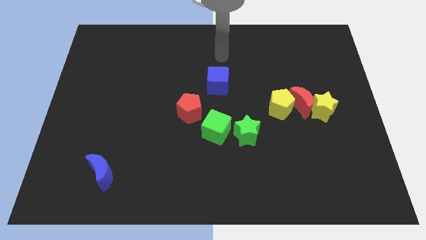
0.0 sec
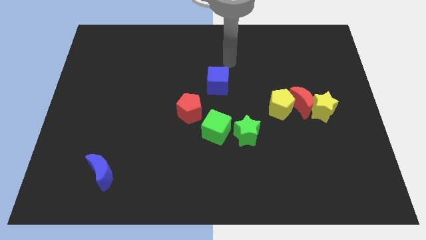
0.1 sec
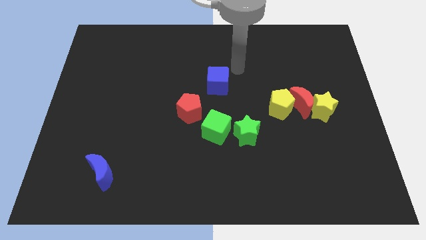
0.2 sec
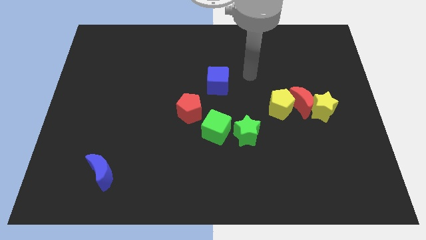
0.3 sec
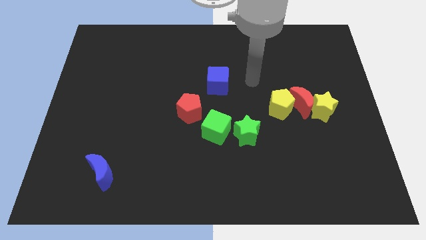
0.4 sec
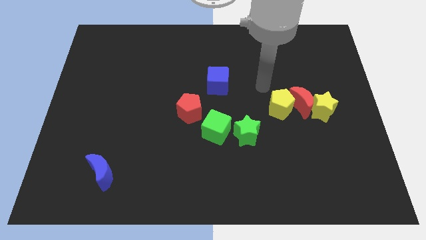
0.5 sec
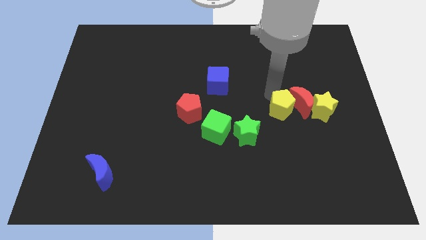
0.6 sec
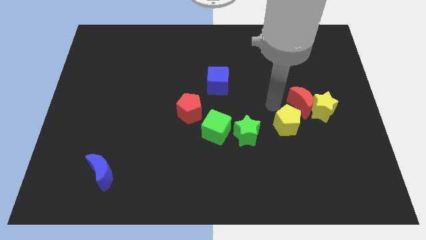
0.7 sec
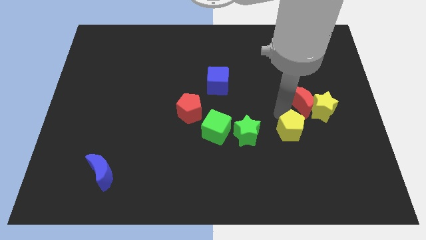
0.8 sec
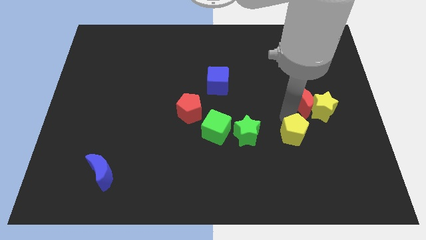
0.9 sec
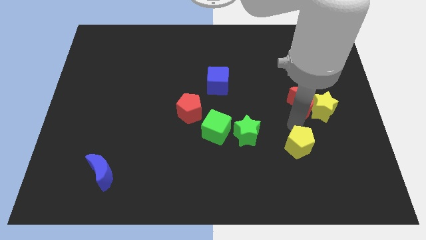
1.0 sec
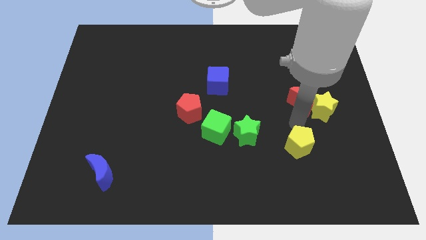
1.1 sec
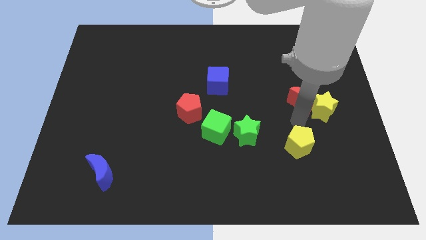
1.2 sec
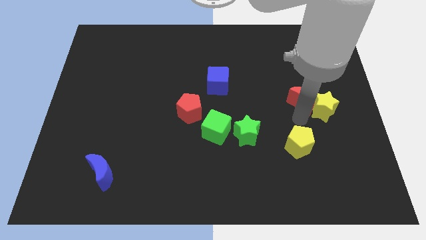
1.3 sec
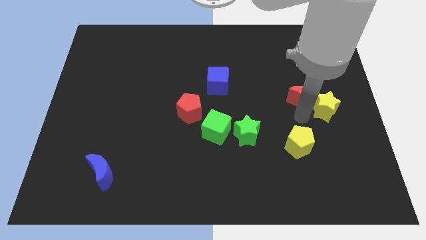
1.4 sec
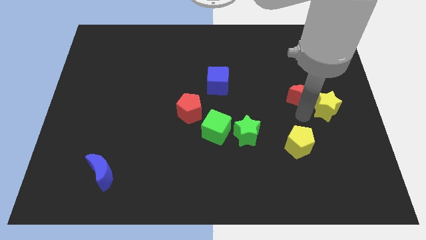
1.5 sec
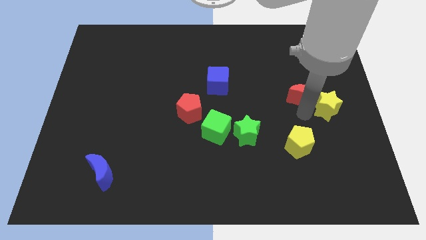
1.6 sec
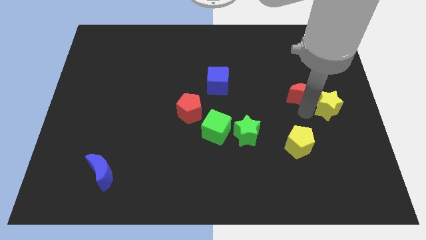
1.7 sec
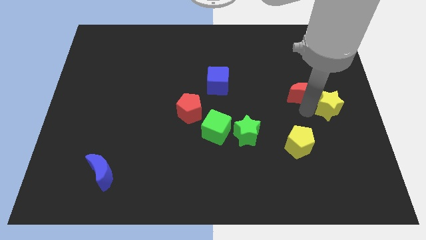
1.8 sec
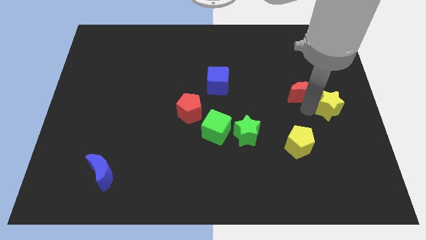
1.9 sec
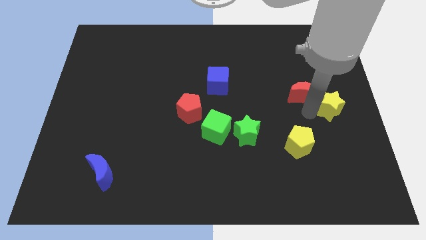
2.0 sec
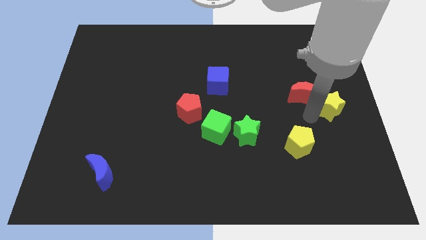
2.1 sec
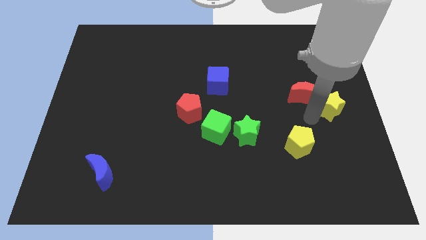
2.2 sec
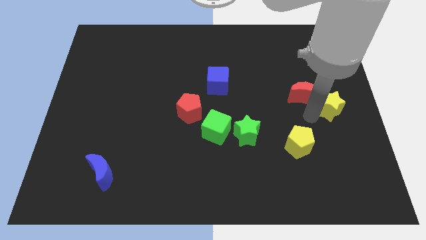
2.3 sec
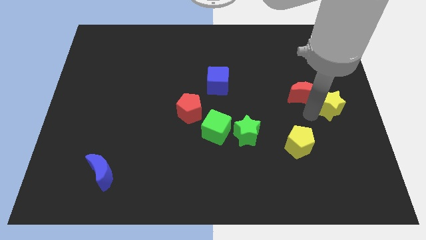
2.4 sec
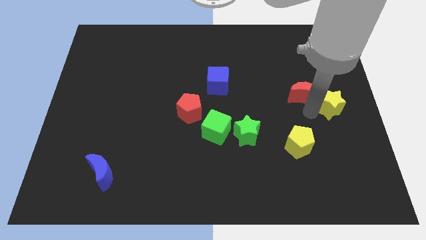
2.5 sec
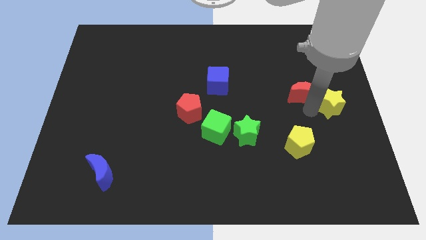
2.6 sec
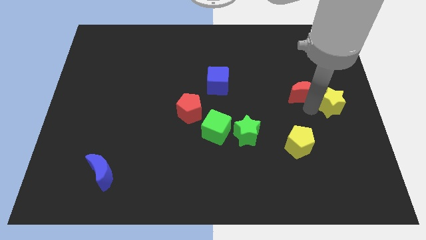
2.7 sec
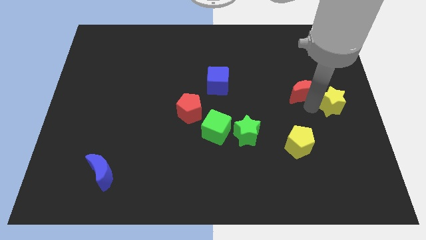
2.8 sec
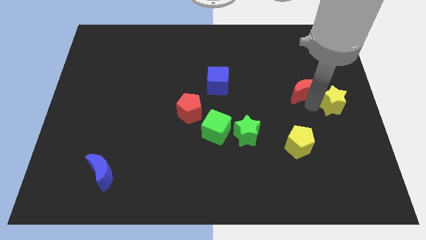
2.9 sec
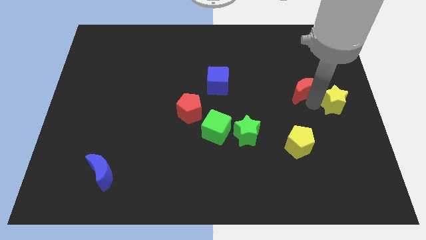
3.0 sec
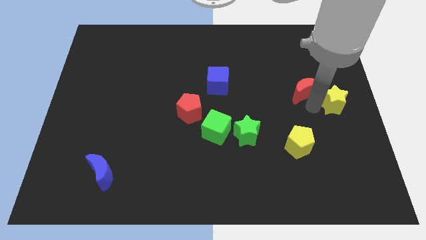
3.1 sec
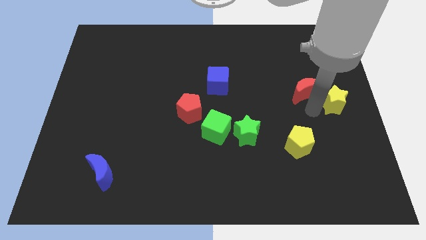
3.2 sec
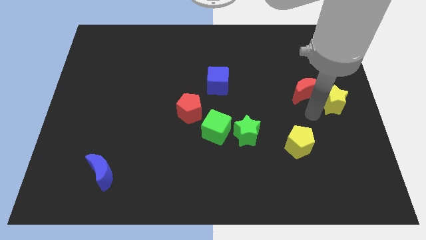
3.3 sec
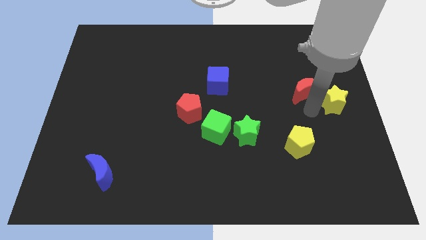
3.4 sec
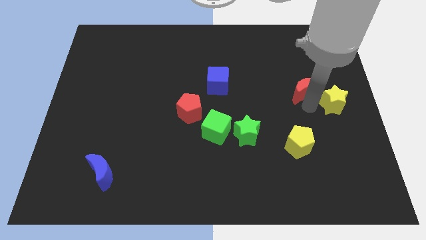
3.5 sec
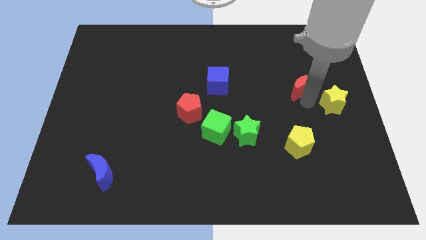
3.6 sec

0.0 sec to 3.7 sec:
separate the red moon from the yellow star and yellow pentagon

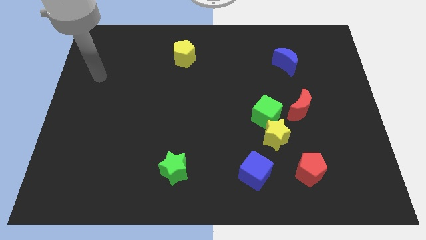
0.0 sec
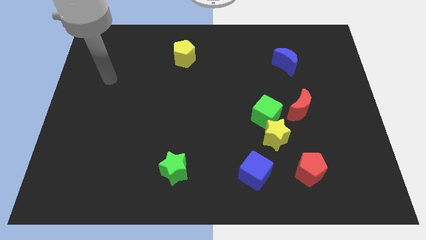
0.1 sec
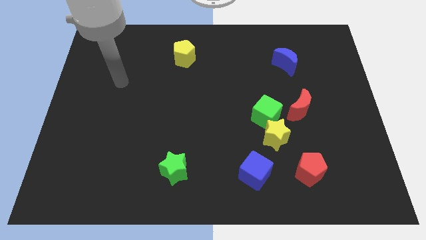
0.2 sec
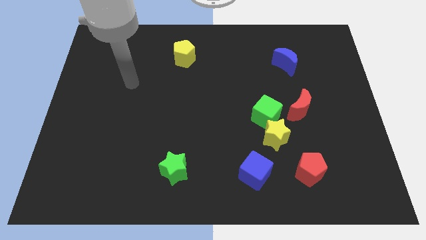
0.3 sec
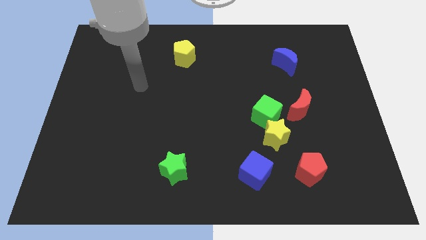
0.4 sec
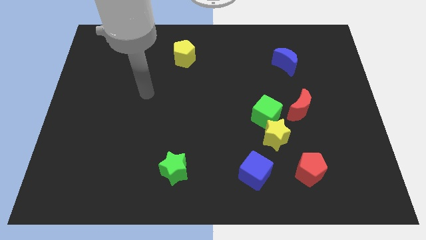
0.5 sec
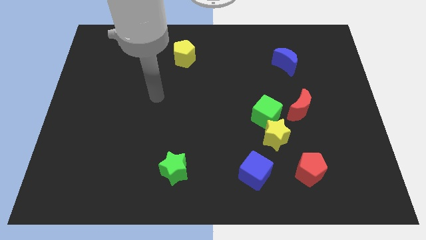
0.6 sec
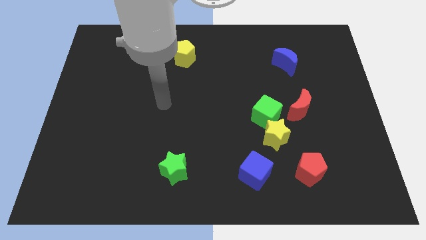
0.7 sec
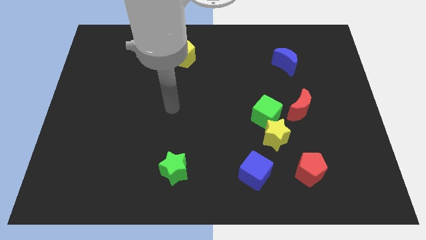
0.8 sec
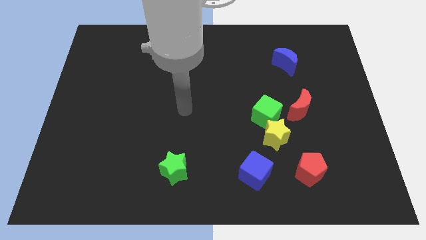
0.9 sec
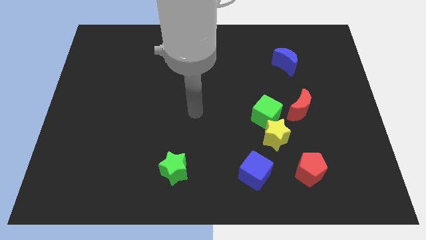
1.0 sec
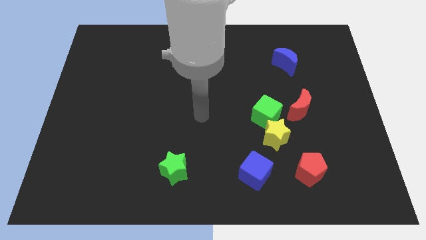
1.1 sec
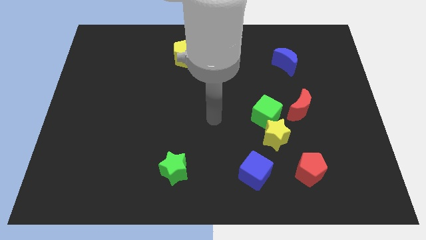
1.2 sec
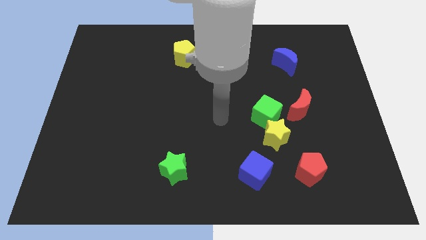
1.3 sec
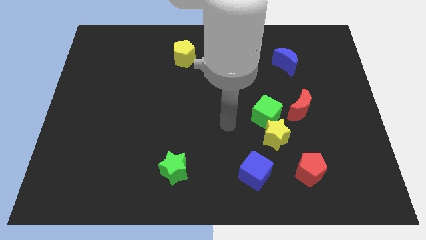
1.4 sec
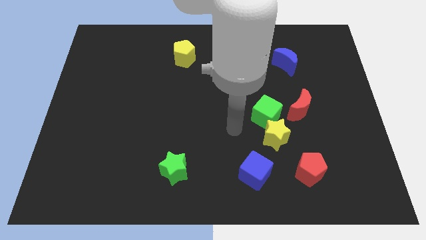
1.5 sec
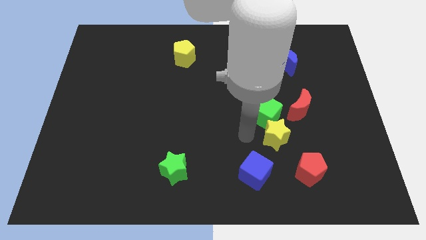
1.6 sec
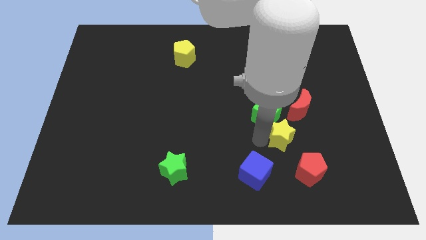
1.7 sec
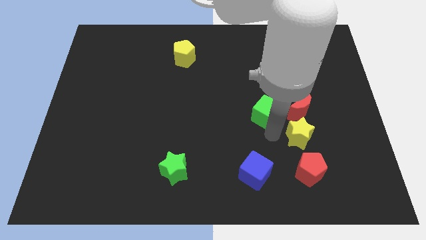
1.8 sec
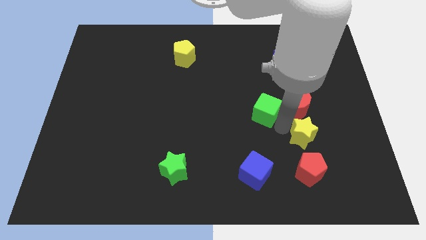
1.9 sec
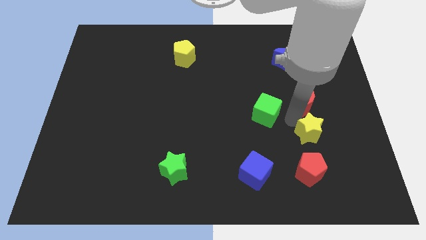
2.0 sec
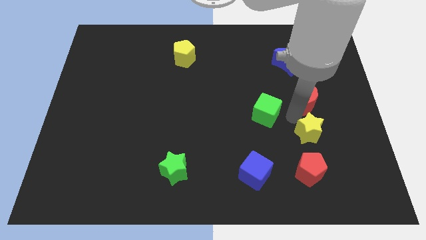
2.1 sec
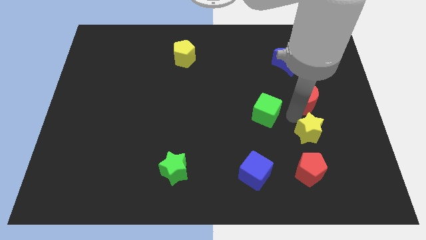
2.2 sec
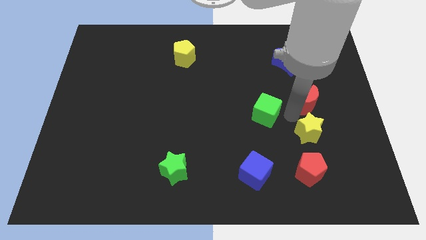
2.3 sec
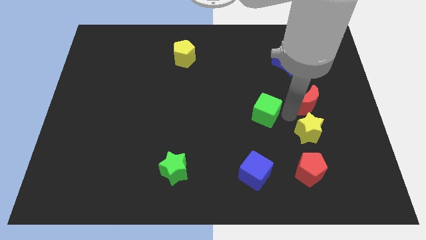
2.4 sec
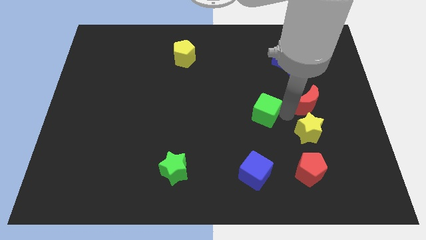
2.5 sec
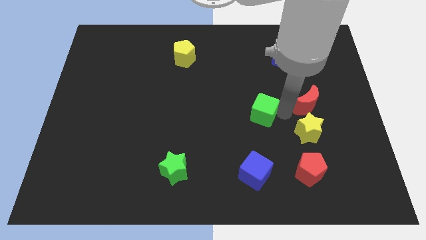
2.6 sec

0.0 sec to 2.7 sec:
separate the green cube from the yellow star and red moon

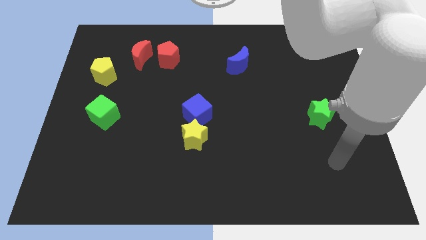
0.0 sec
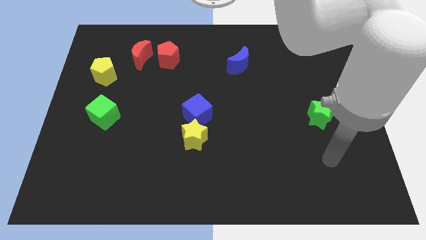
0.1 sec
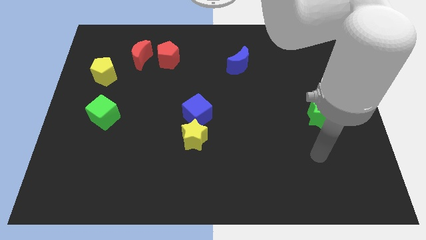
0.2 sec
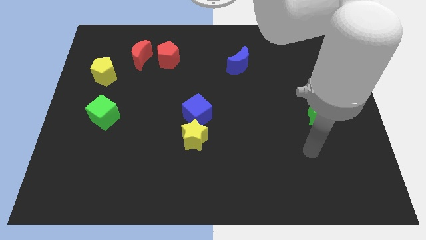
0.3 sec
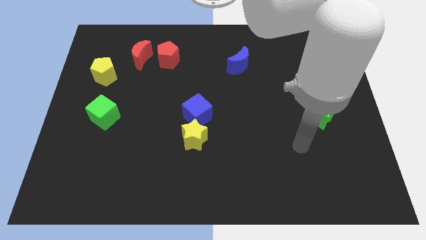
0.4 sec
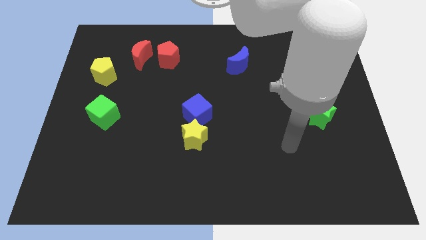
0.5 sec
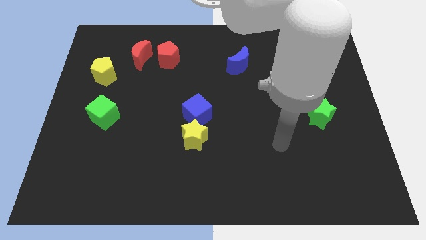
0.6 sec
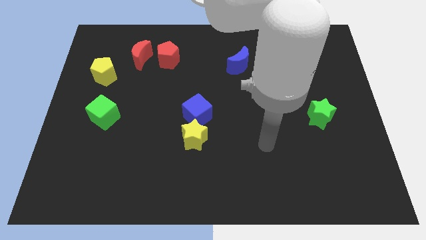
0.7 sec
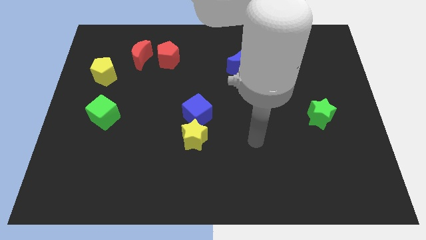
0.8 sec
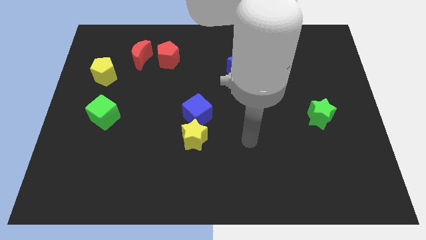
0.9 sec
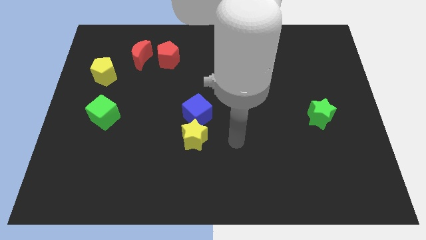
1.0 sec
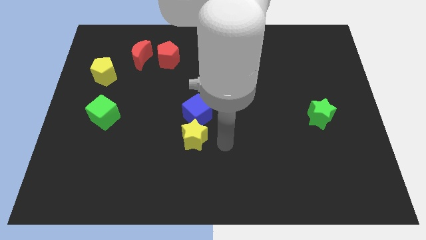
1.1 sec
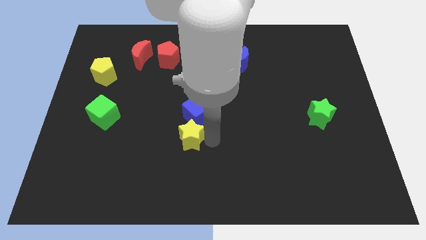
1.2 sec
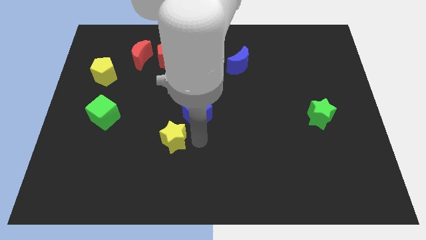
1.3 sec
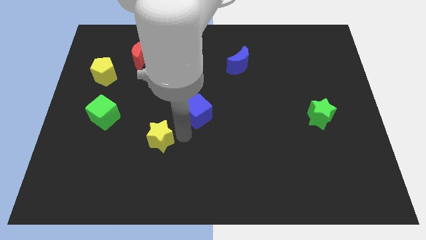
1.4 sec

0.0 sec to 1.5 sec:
separate the blue cube from the yellow star

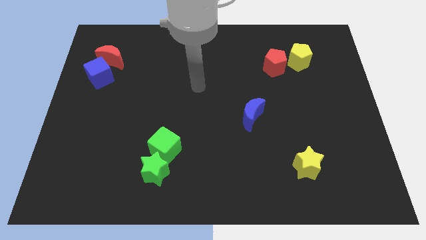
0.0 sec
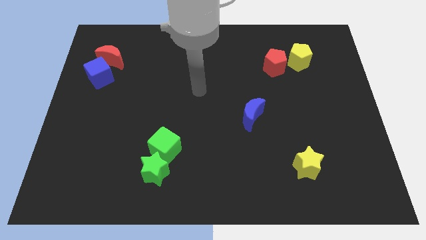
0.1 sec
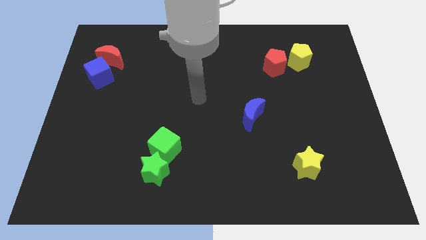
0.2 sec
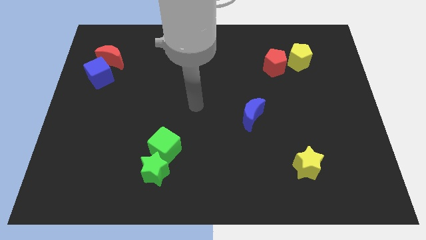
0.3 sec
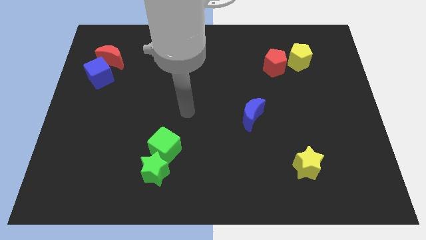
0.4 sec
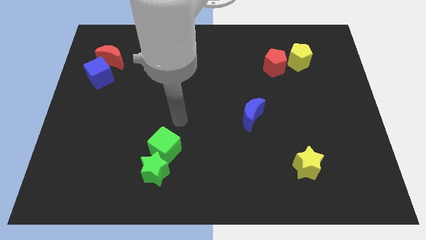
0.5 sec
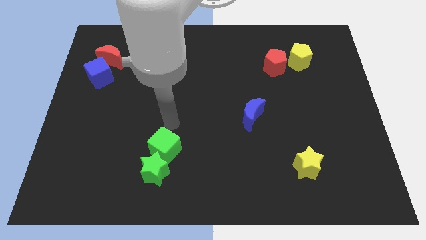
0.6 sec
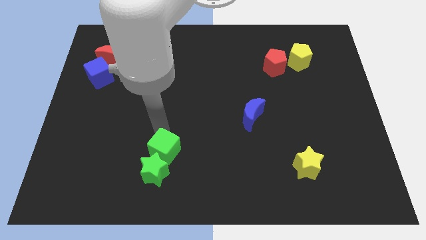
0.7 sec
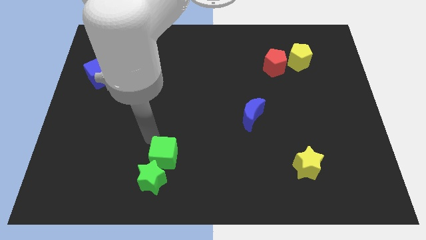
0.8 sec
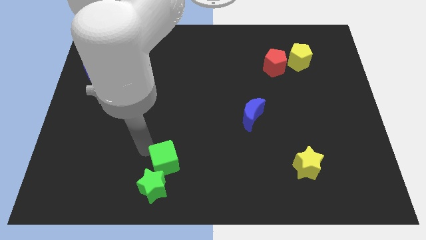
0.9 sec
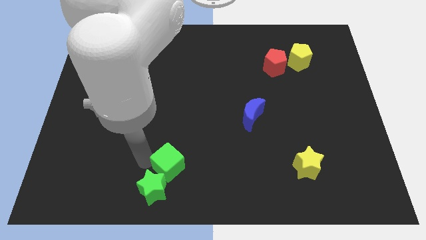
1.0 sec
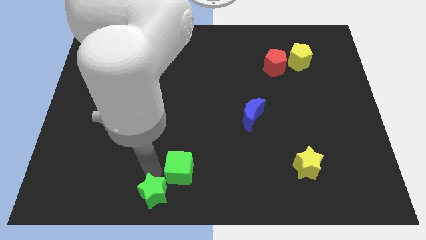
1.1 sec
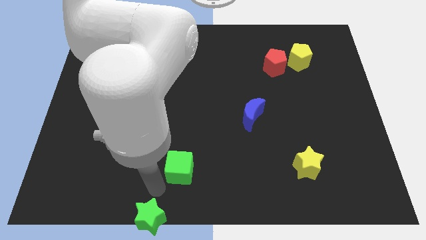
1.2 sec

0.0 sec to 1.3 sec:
separate the green cube from the green star

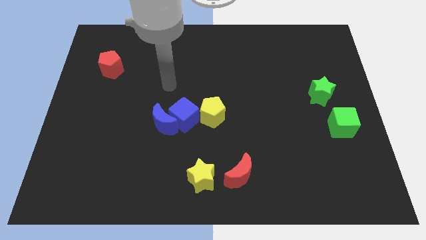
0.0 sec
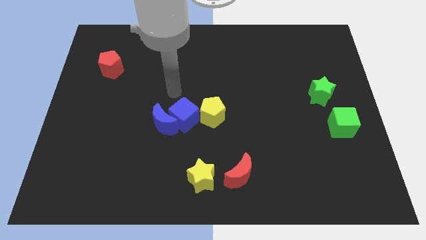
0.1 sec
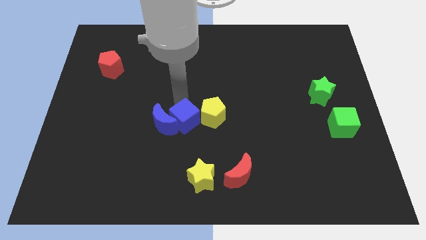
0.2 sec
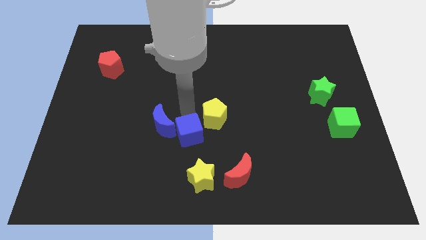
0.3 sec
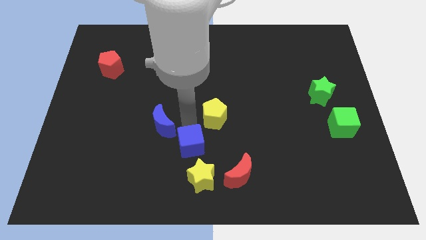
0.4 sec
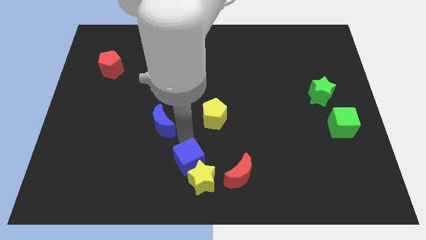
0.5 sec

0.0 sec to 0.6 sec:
pull the blue moon apart from the blue cube
